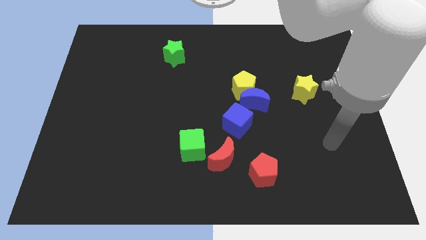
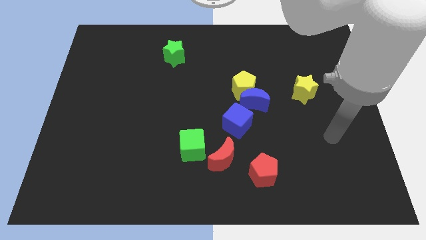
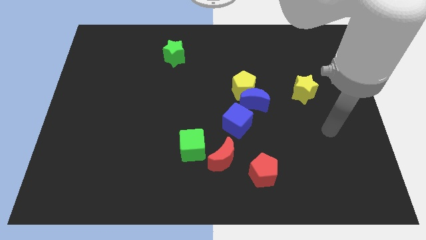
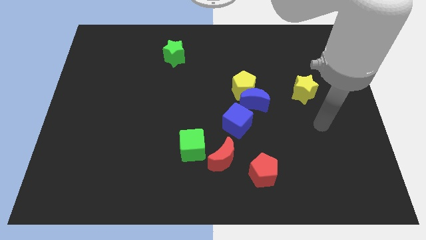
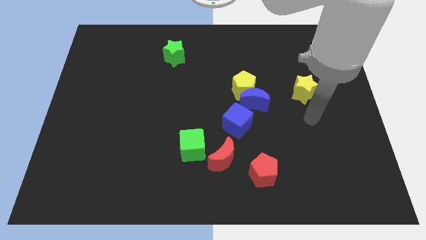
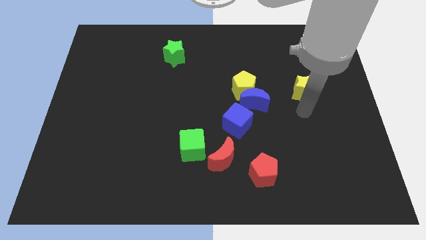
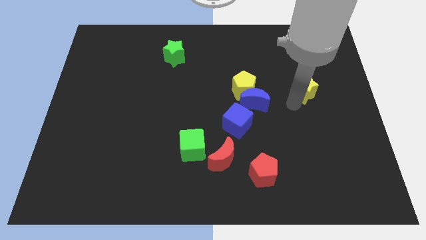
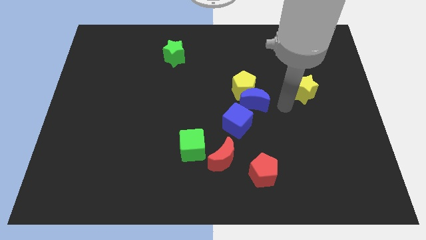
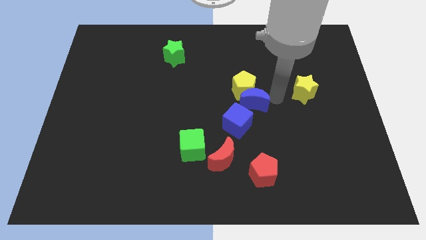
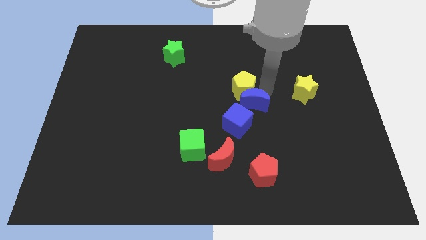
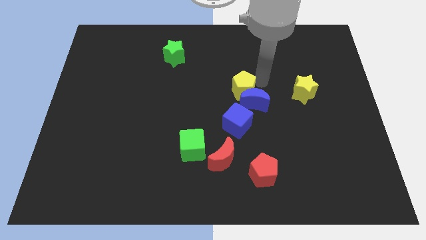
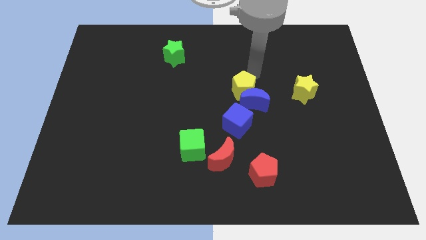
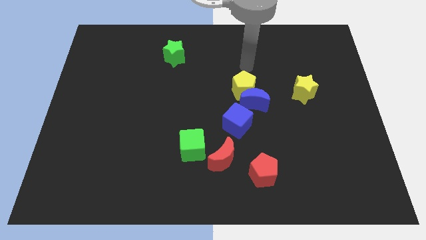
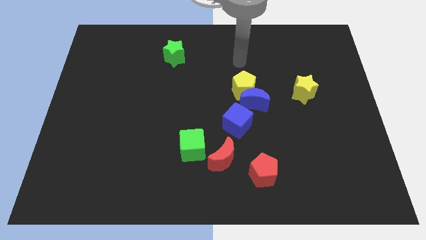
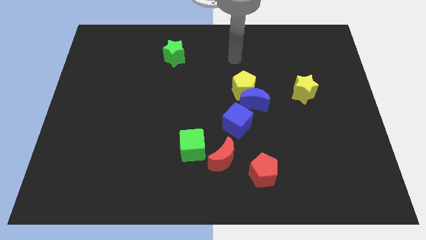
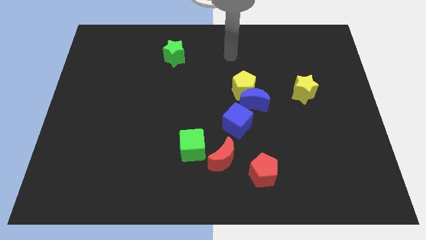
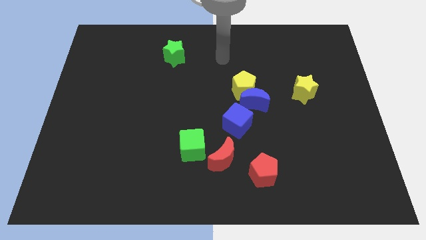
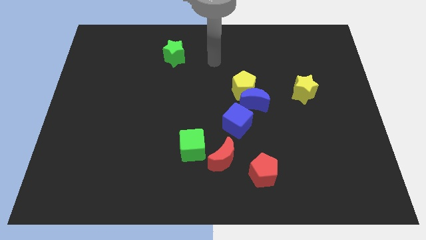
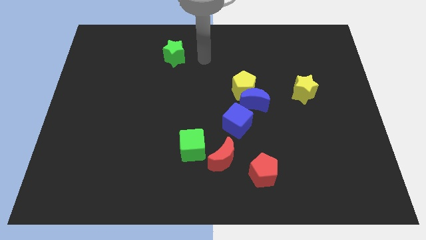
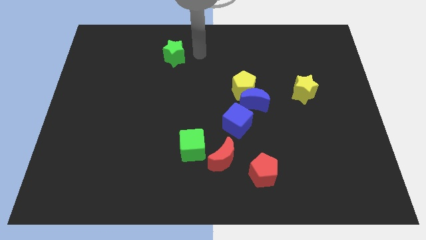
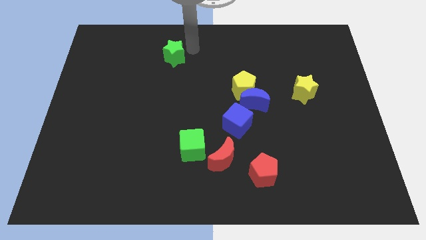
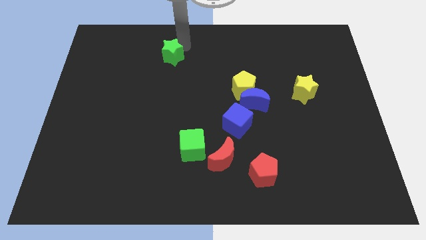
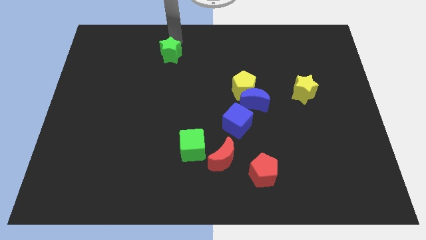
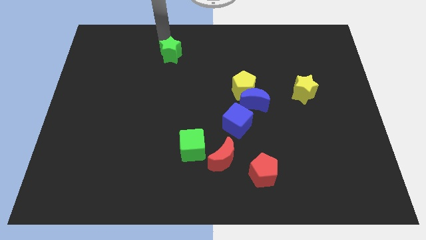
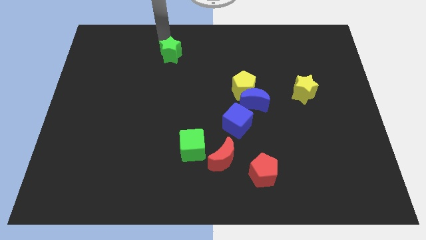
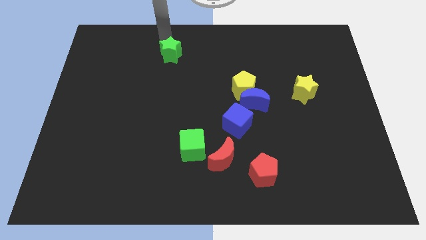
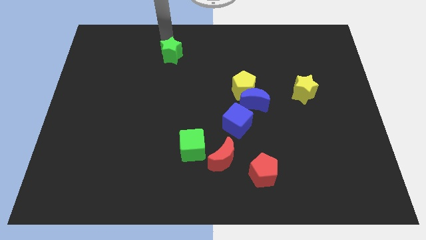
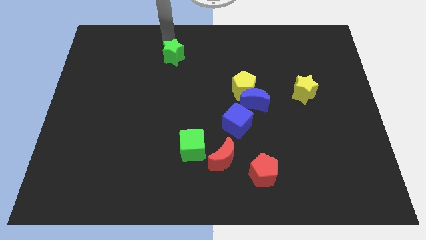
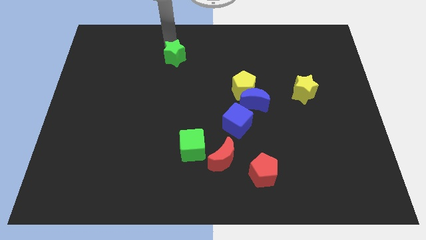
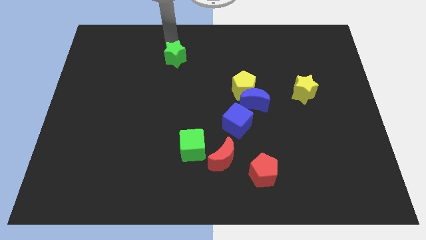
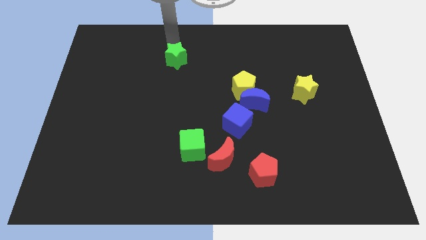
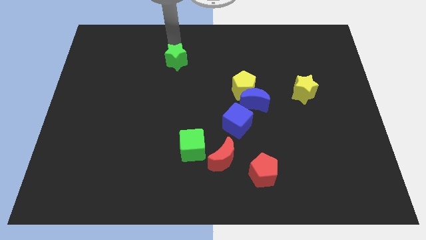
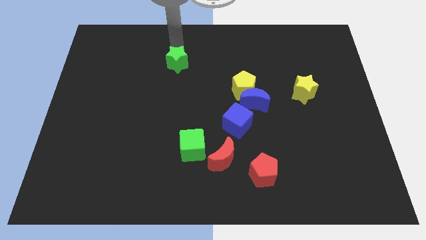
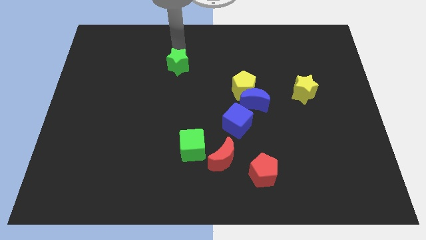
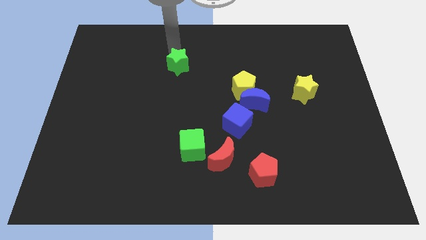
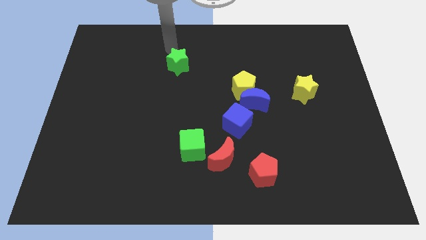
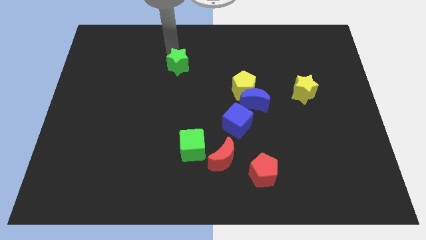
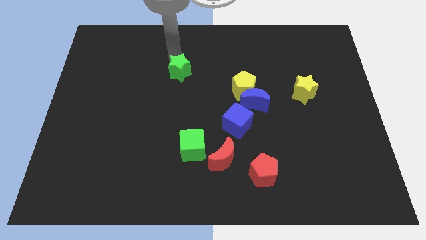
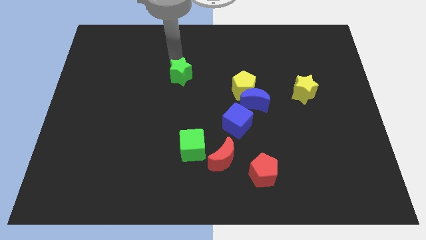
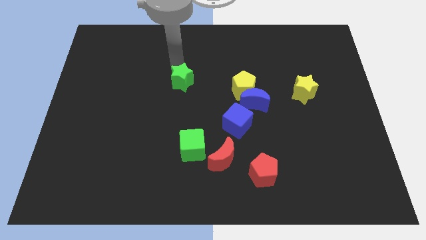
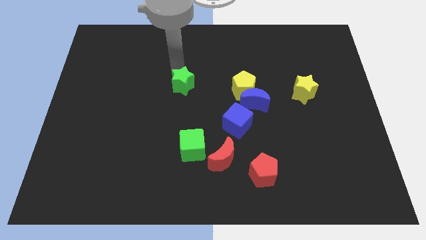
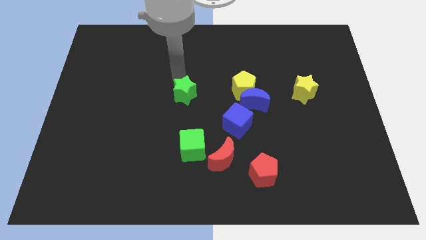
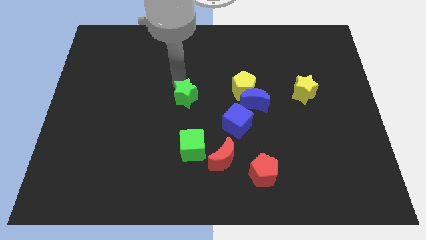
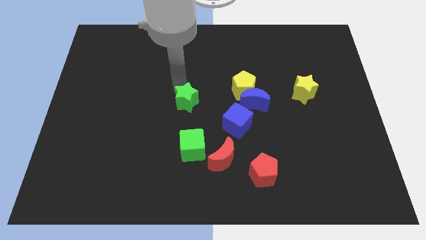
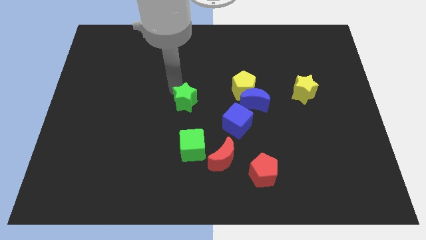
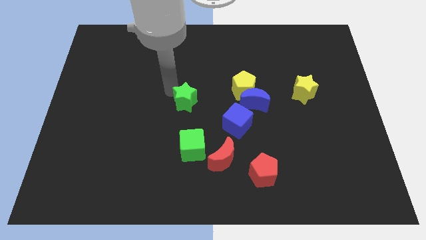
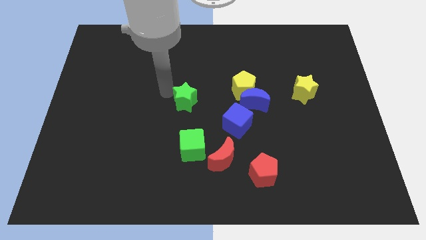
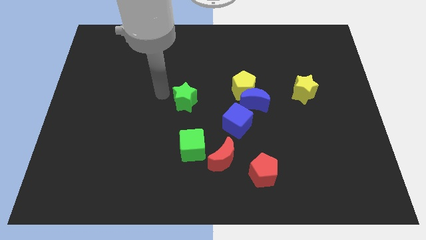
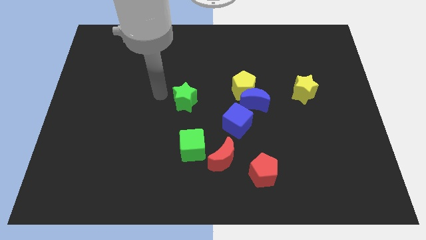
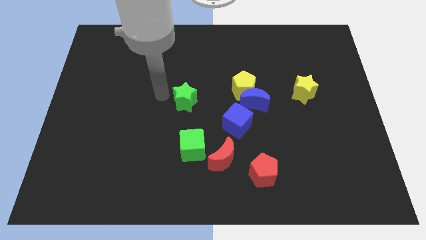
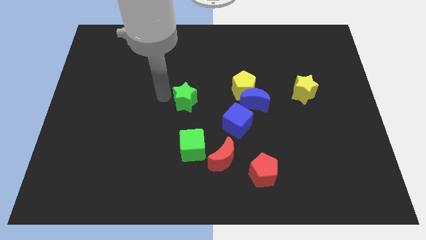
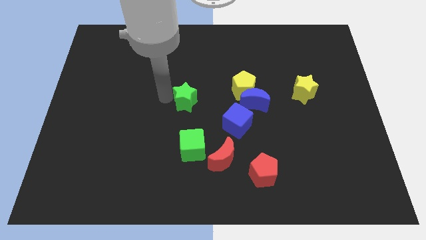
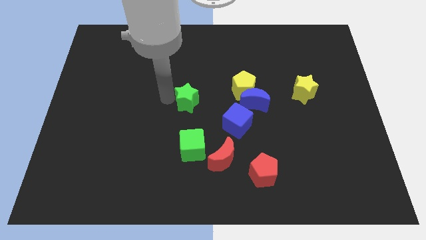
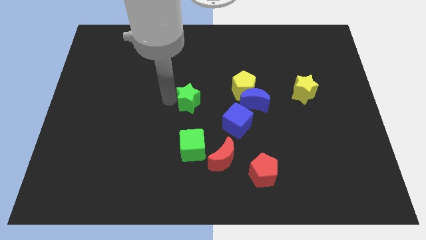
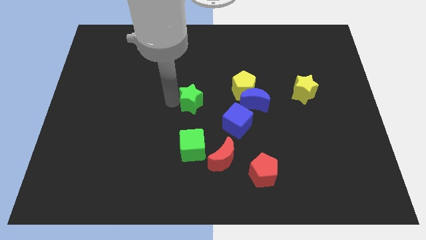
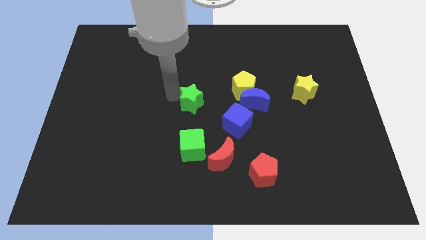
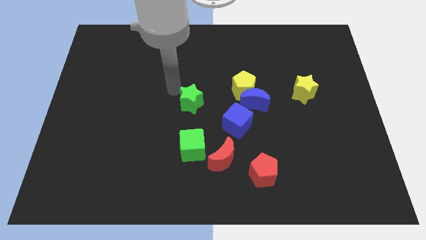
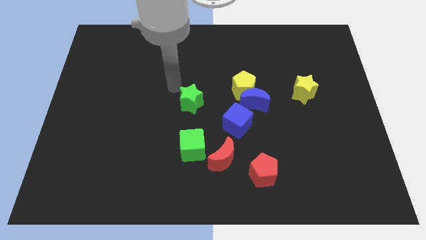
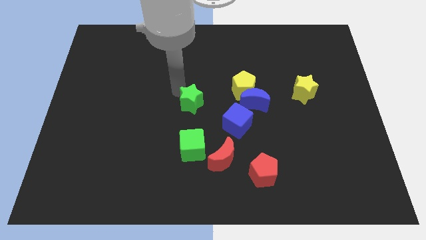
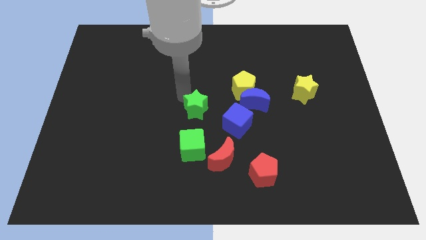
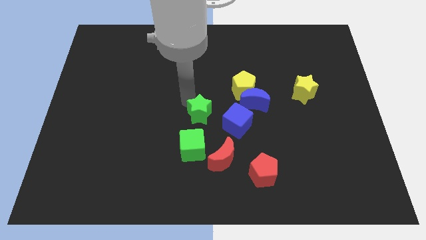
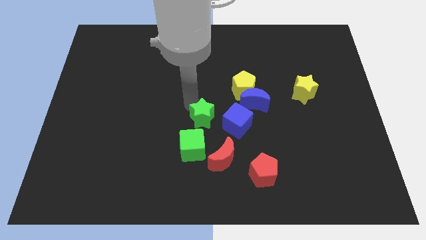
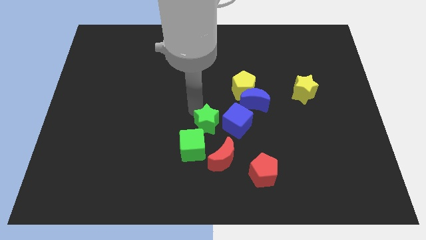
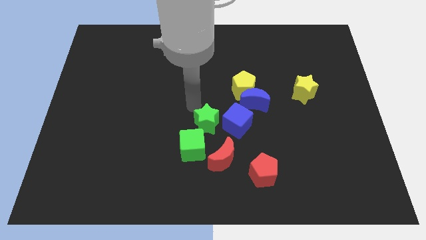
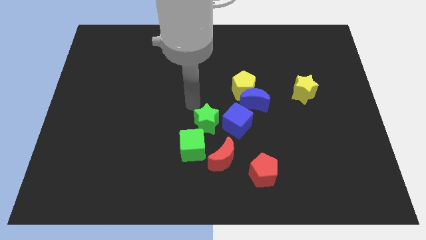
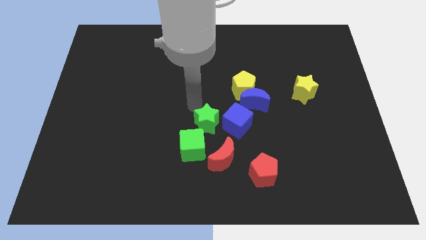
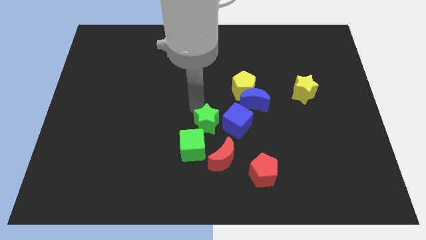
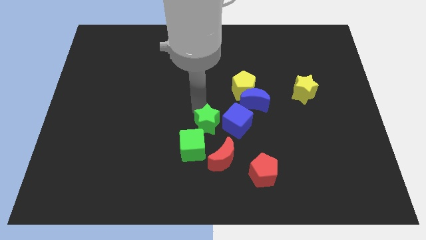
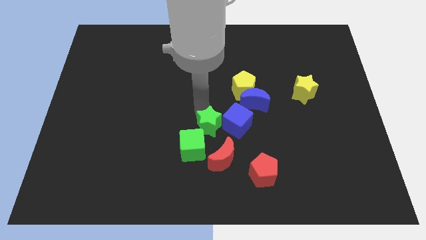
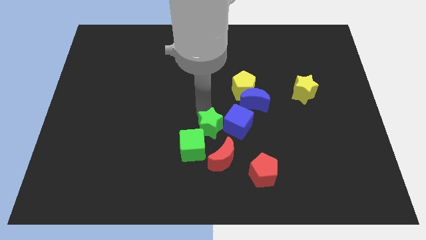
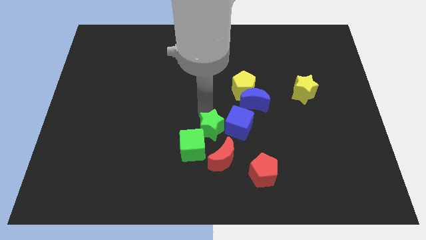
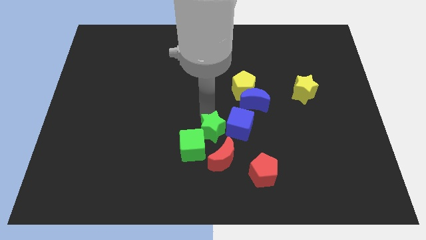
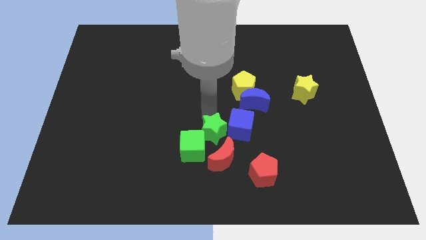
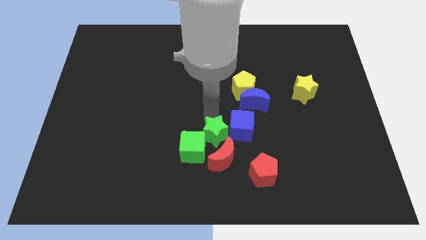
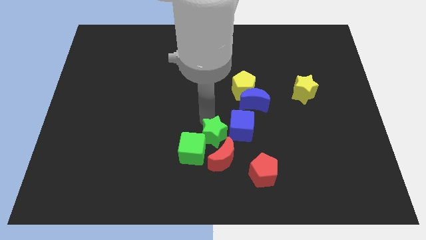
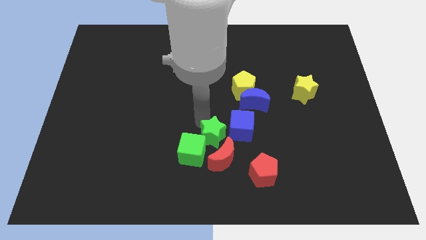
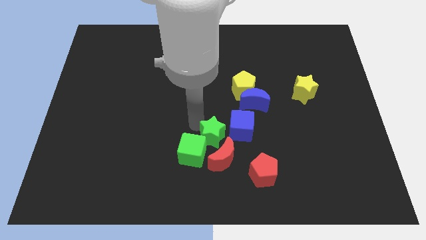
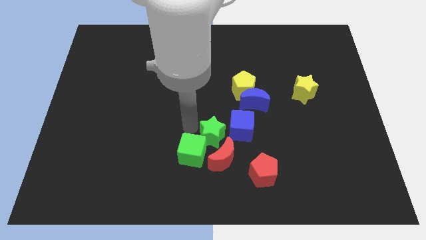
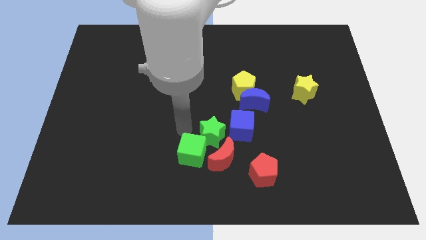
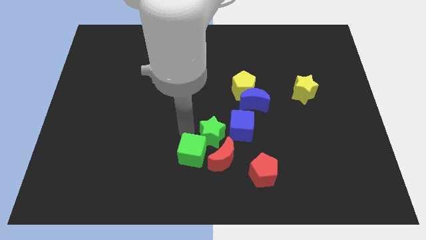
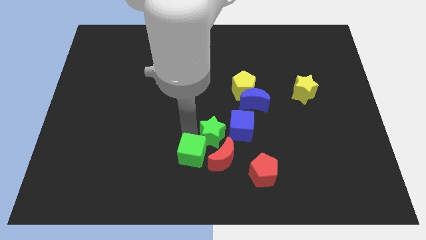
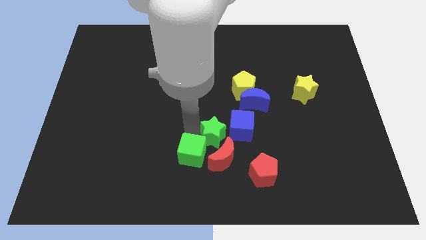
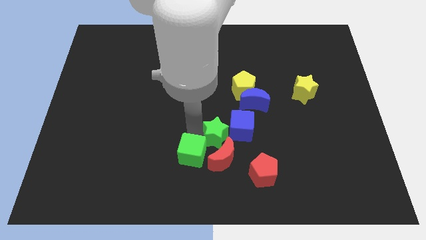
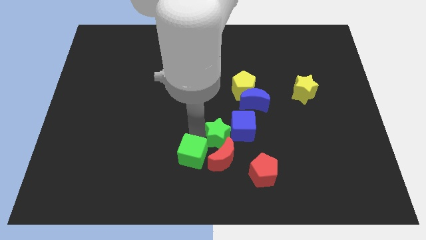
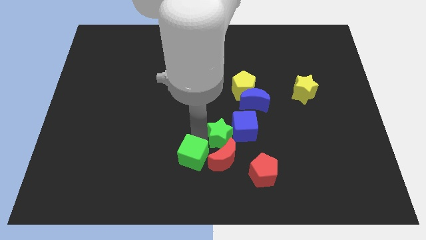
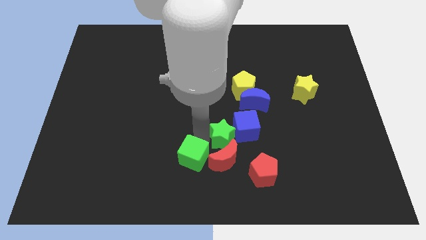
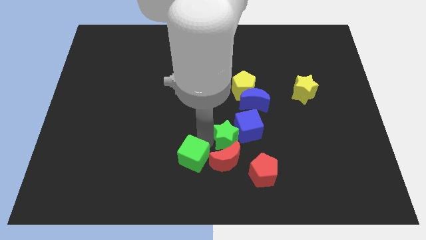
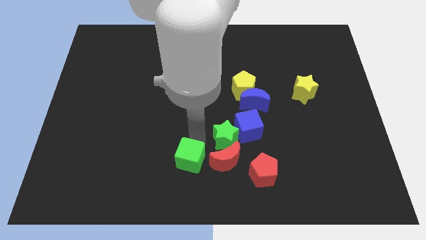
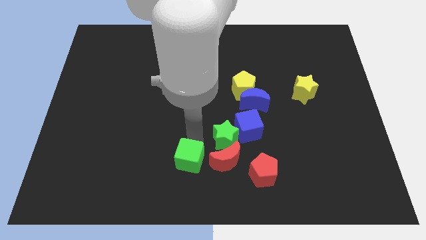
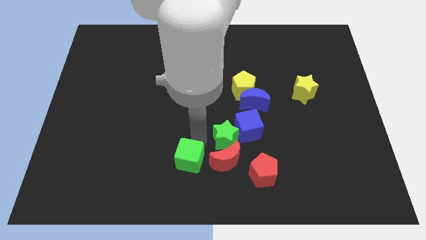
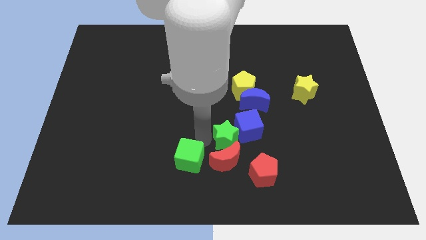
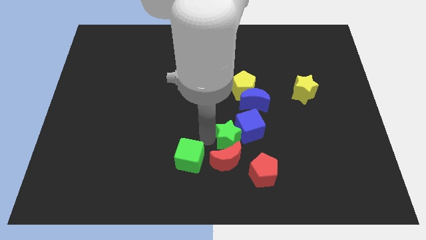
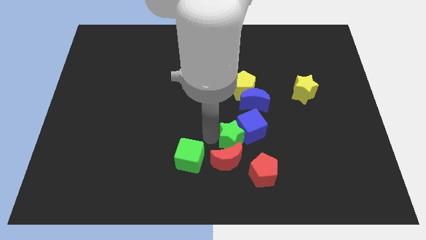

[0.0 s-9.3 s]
push the green star to the bottom side of the yellow pentagon
